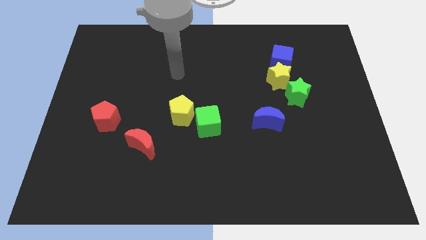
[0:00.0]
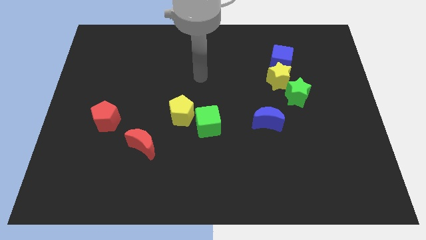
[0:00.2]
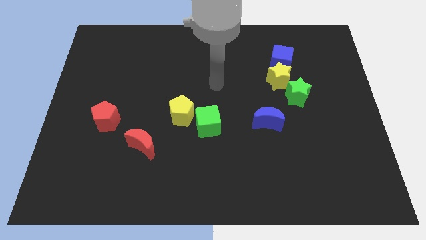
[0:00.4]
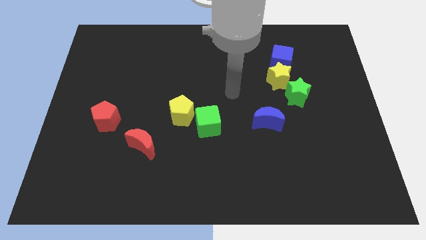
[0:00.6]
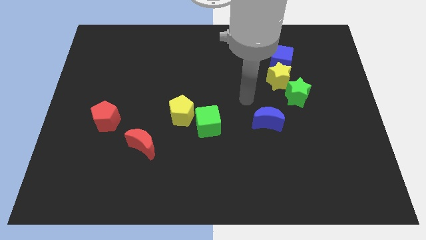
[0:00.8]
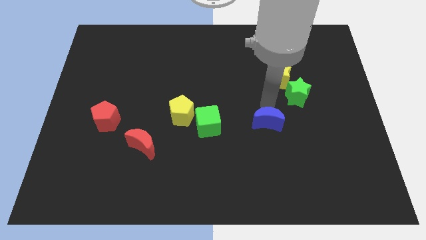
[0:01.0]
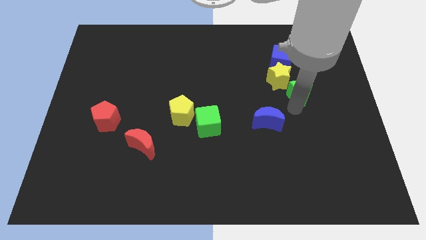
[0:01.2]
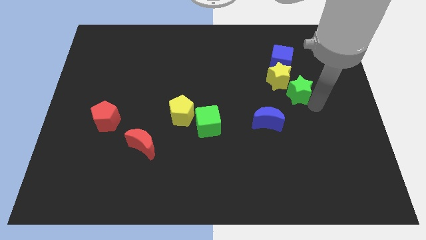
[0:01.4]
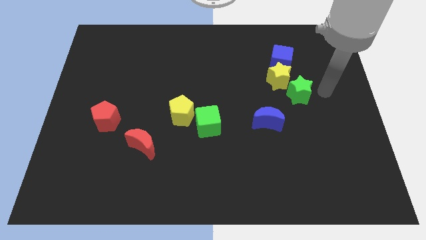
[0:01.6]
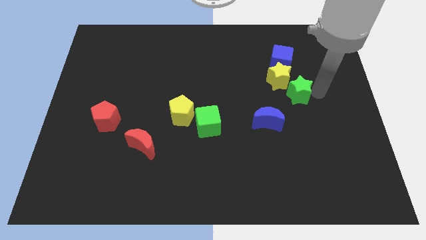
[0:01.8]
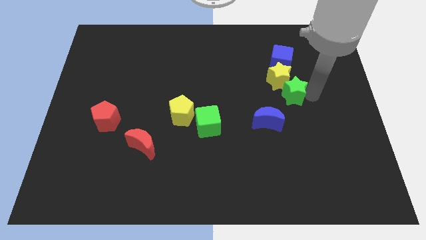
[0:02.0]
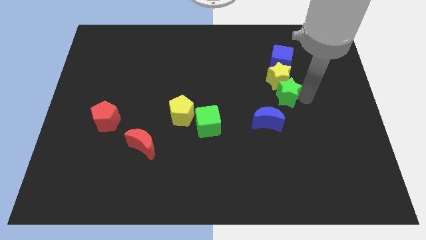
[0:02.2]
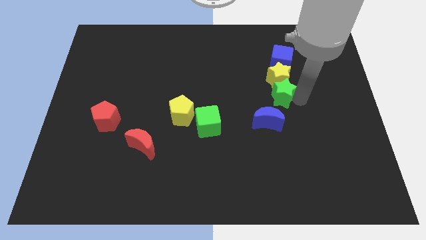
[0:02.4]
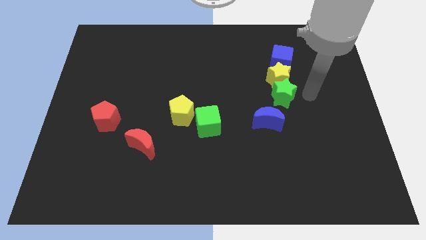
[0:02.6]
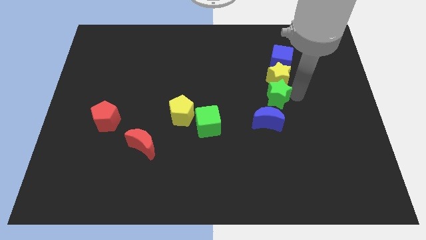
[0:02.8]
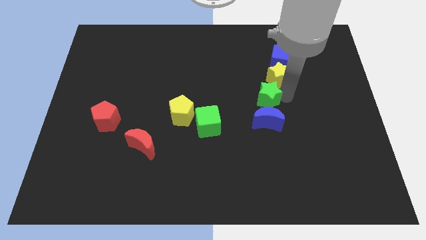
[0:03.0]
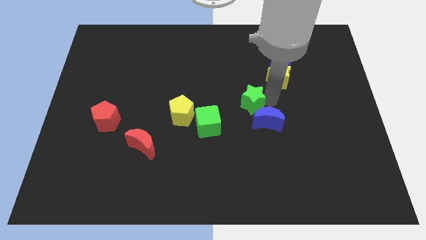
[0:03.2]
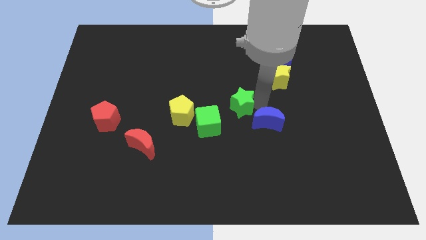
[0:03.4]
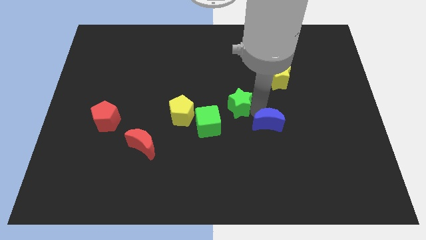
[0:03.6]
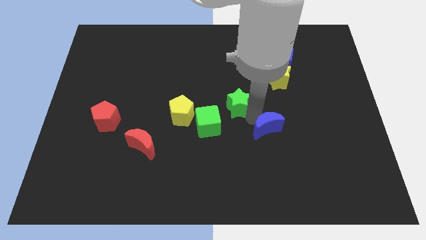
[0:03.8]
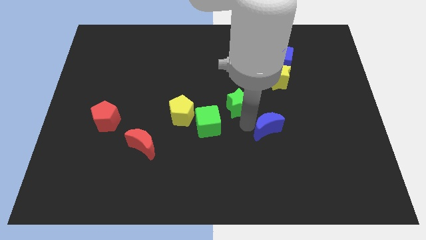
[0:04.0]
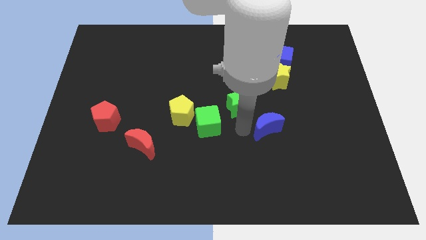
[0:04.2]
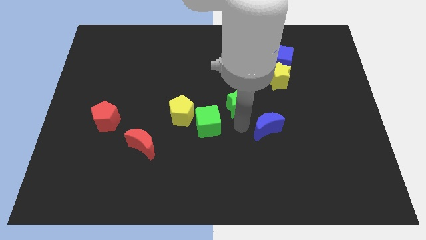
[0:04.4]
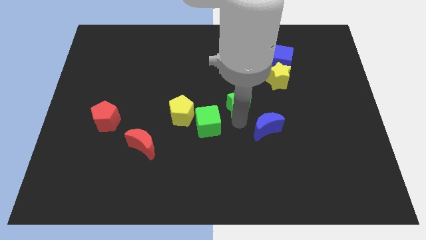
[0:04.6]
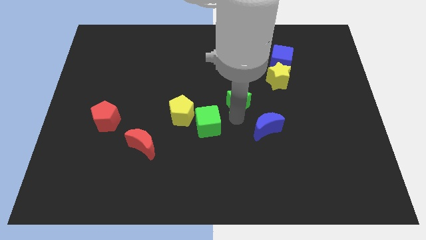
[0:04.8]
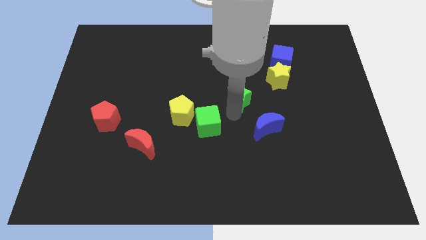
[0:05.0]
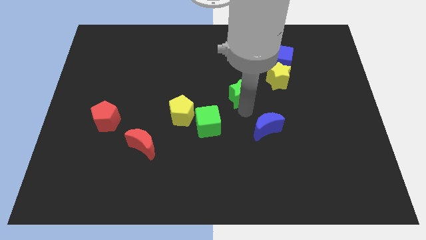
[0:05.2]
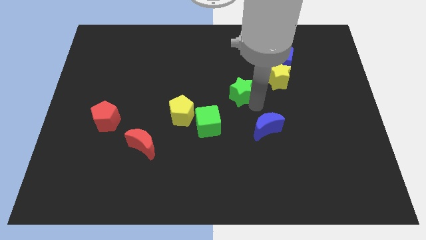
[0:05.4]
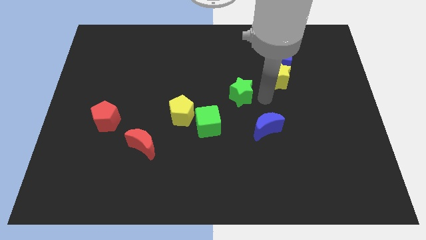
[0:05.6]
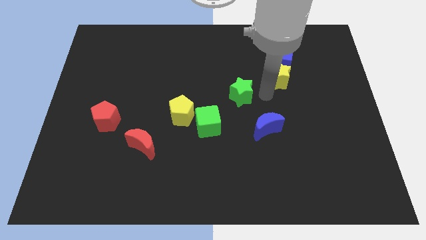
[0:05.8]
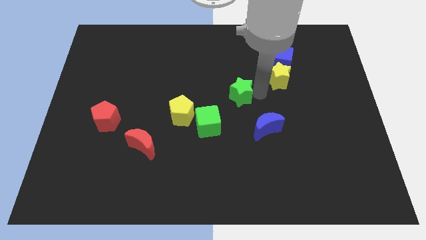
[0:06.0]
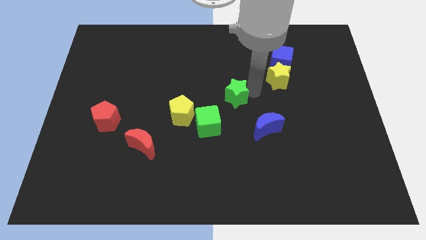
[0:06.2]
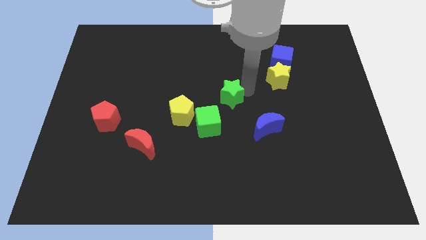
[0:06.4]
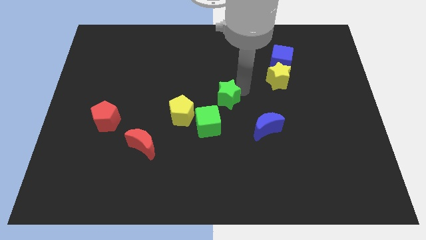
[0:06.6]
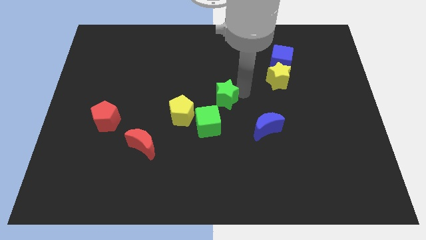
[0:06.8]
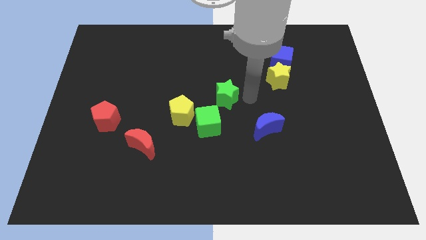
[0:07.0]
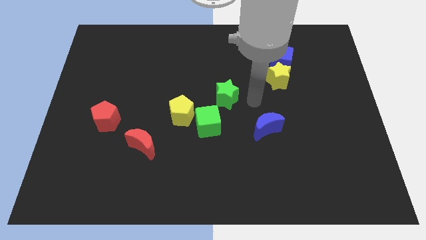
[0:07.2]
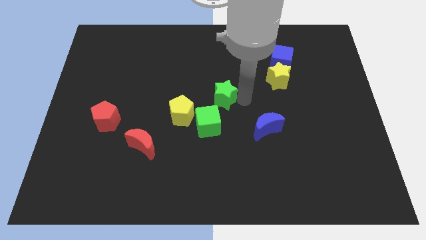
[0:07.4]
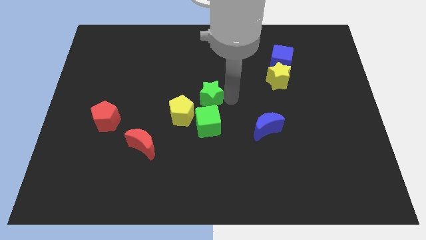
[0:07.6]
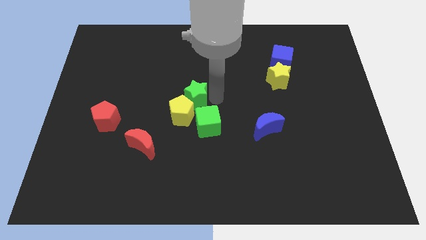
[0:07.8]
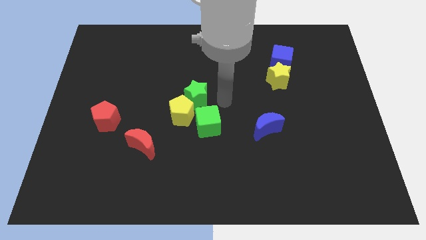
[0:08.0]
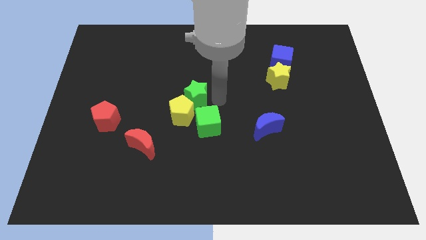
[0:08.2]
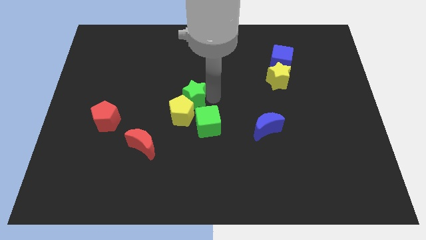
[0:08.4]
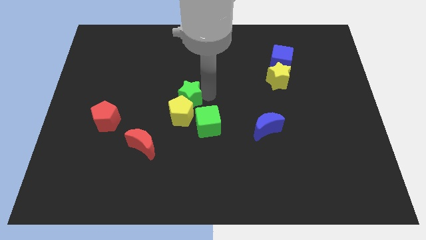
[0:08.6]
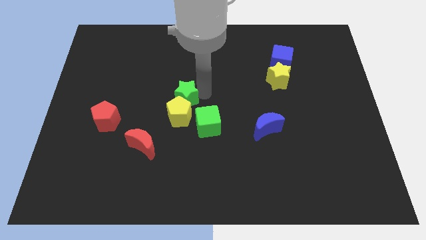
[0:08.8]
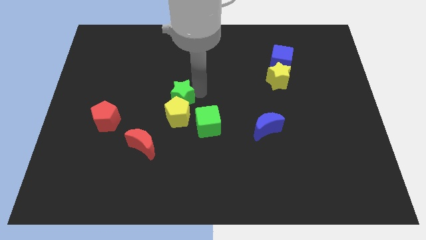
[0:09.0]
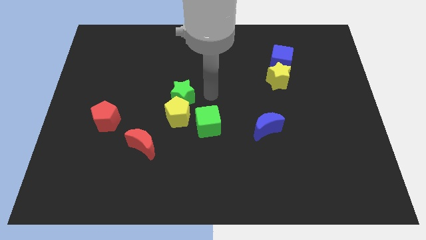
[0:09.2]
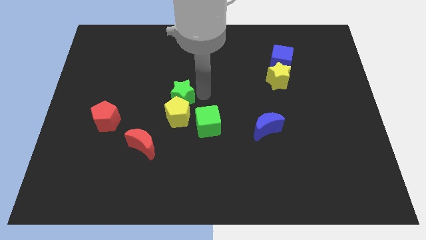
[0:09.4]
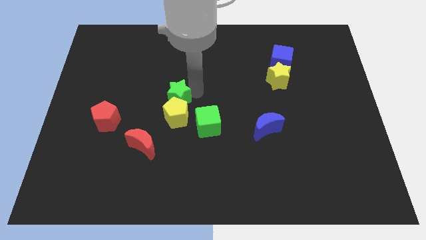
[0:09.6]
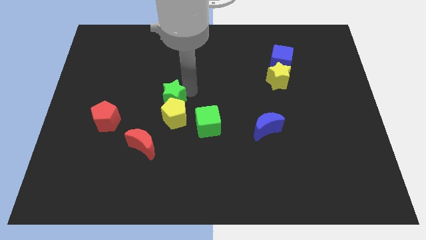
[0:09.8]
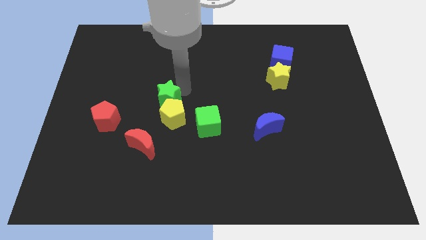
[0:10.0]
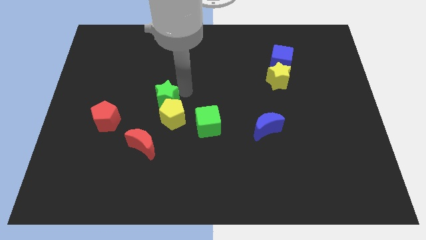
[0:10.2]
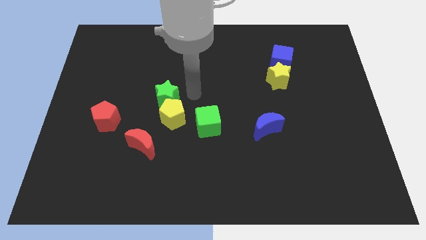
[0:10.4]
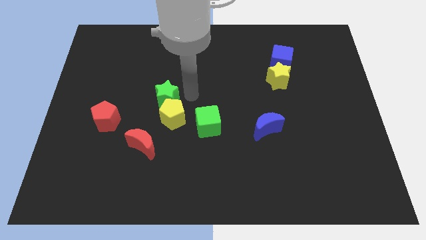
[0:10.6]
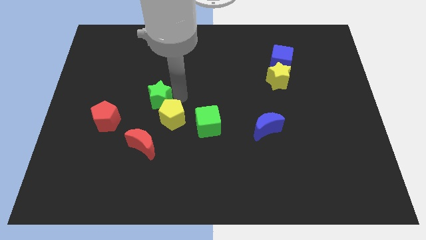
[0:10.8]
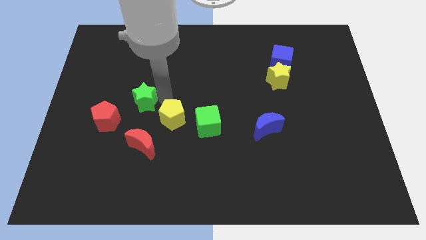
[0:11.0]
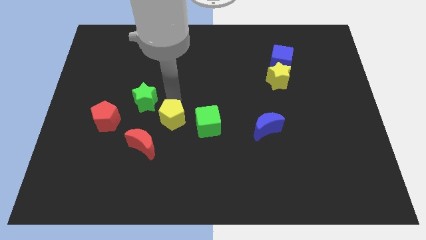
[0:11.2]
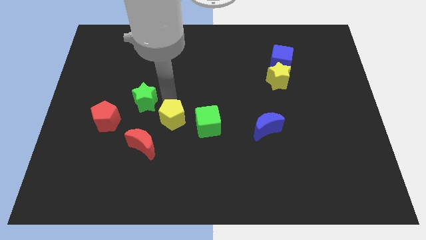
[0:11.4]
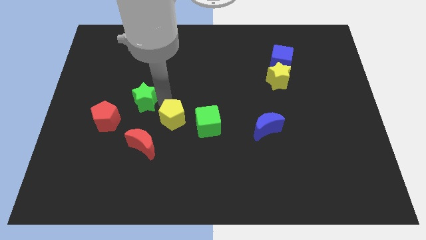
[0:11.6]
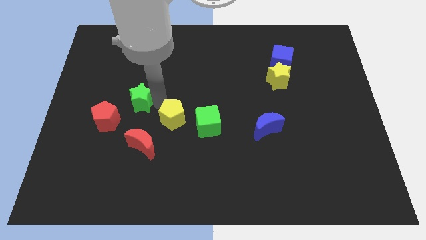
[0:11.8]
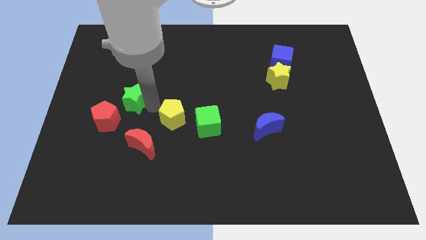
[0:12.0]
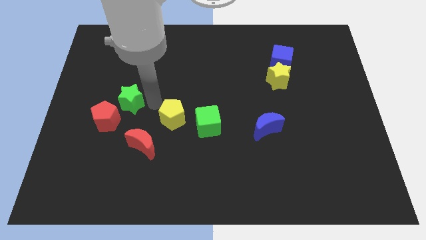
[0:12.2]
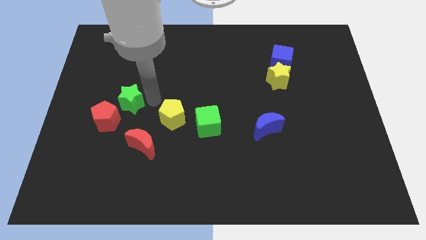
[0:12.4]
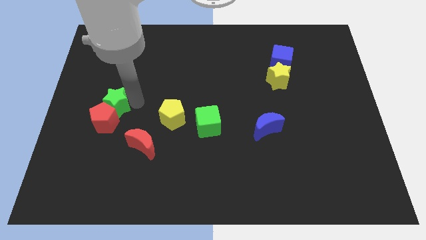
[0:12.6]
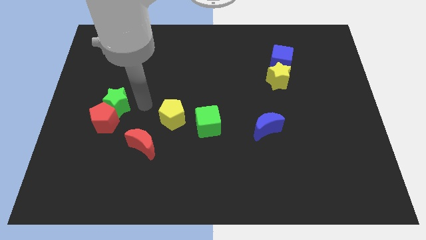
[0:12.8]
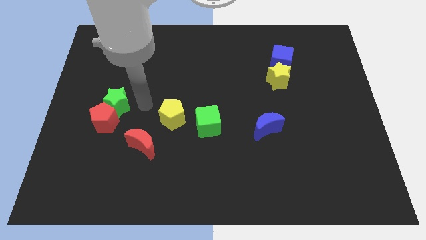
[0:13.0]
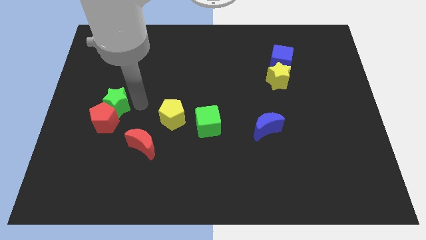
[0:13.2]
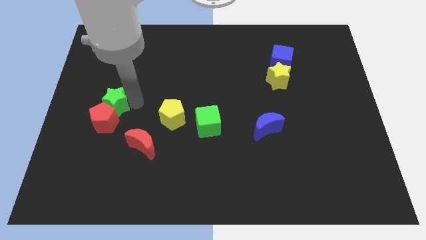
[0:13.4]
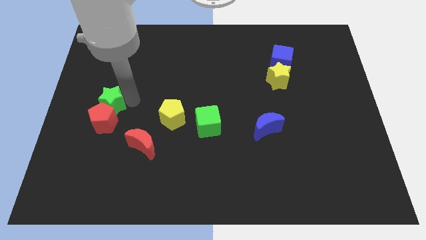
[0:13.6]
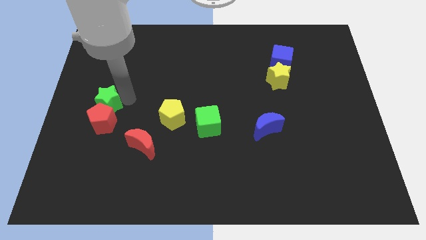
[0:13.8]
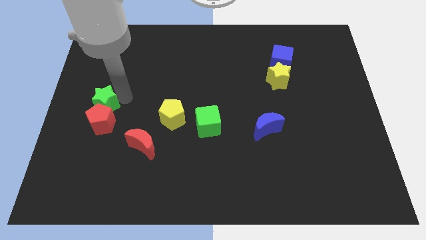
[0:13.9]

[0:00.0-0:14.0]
push the green star to the left side of the board
